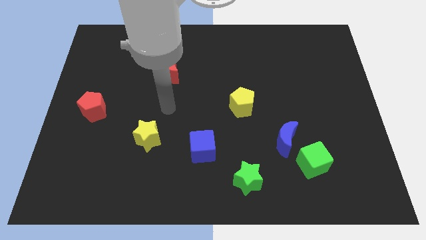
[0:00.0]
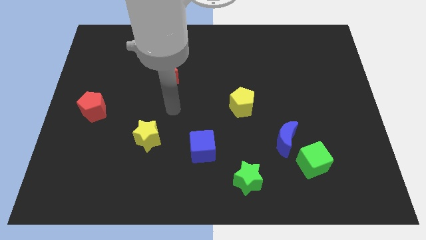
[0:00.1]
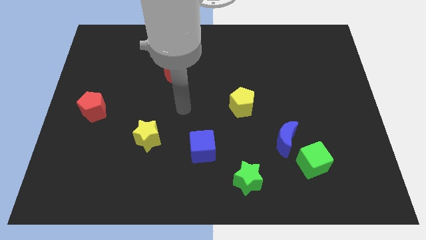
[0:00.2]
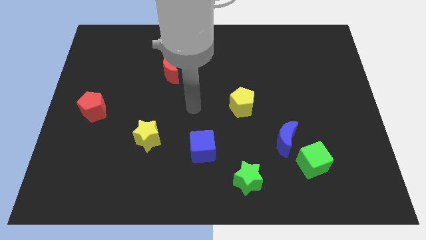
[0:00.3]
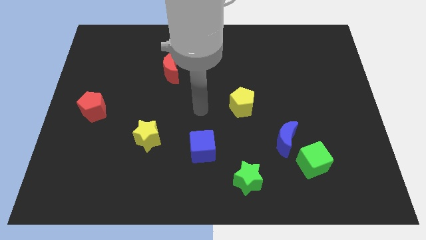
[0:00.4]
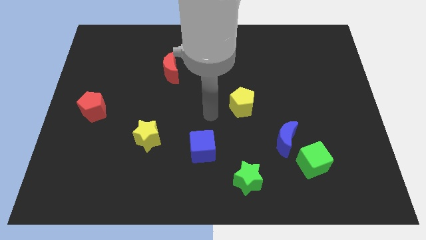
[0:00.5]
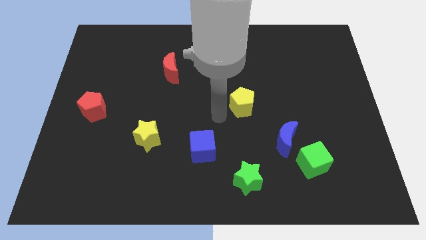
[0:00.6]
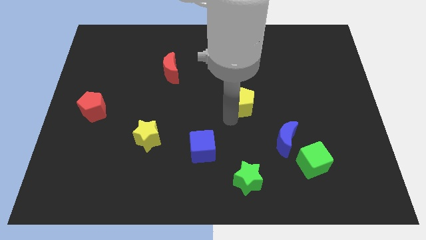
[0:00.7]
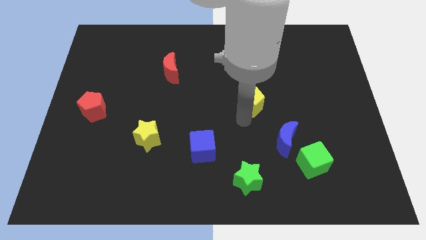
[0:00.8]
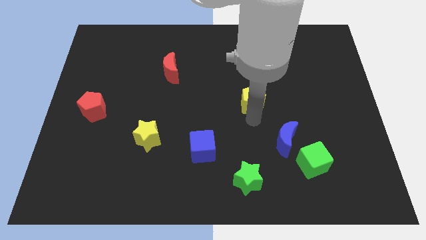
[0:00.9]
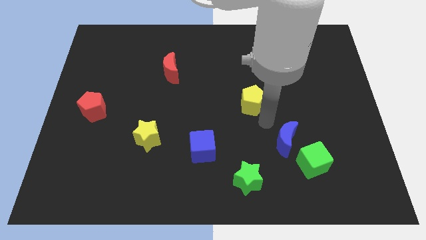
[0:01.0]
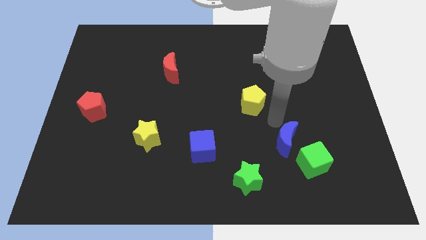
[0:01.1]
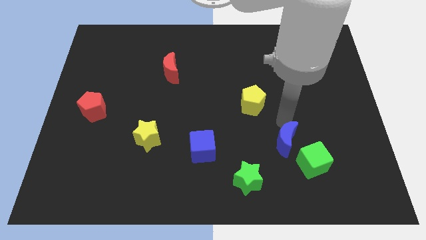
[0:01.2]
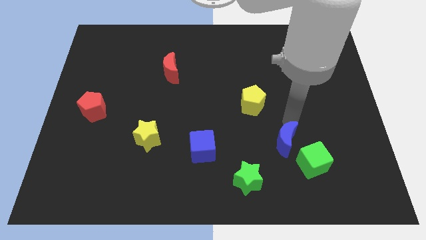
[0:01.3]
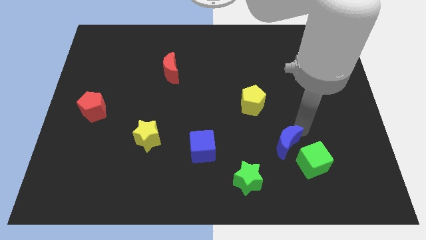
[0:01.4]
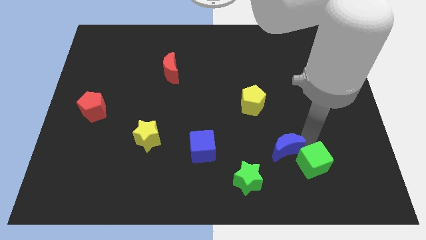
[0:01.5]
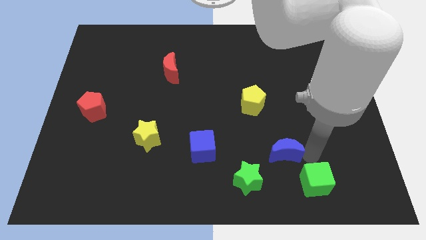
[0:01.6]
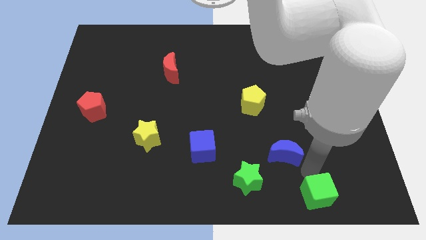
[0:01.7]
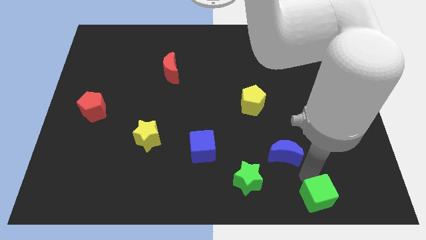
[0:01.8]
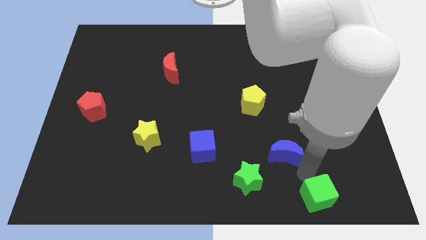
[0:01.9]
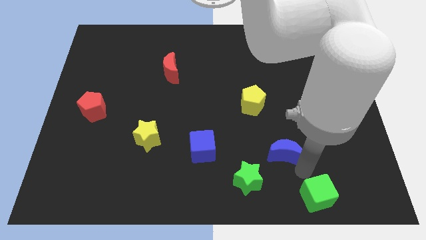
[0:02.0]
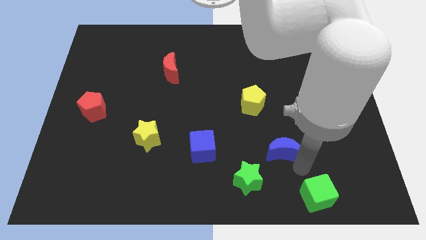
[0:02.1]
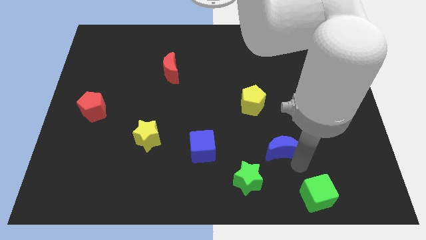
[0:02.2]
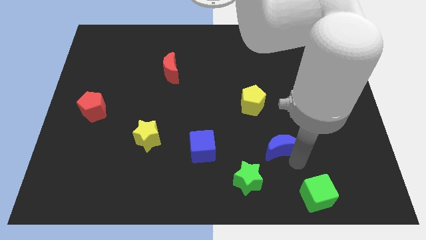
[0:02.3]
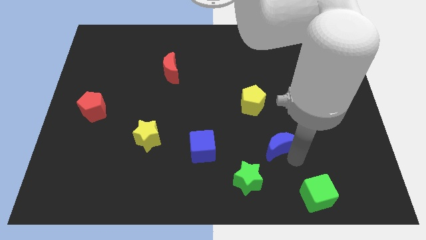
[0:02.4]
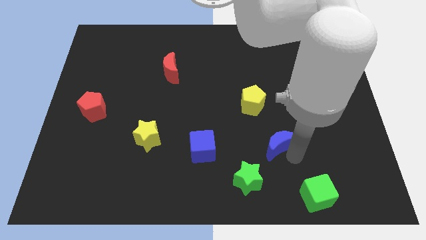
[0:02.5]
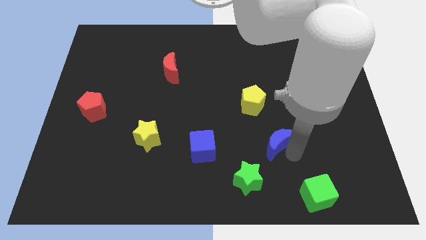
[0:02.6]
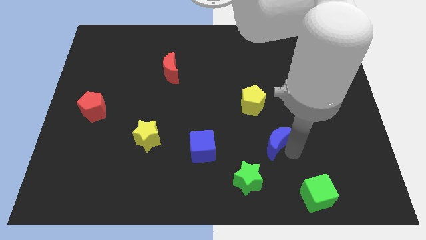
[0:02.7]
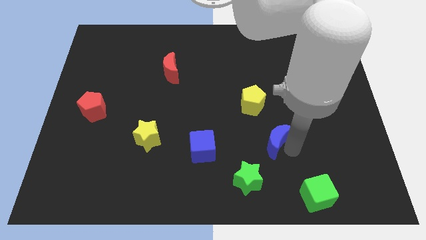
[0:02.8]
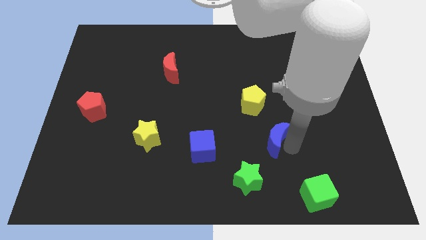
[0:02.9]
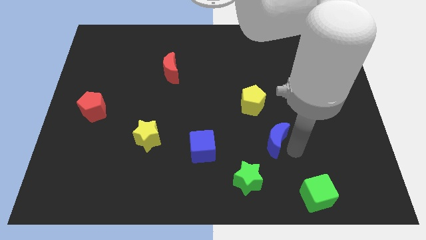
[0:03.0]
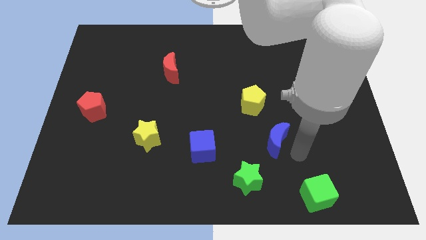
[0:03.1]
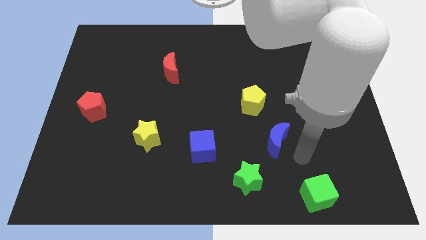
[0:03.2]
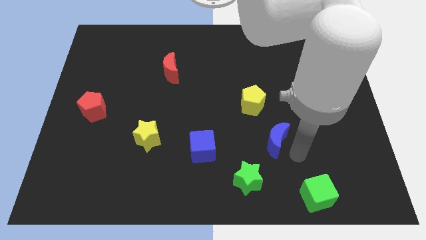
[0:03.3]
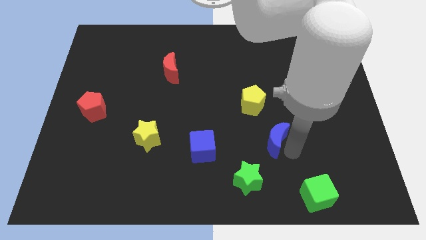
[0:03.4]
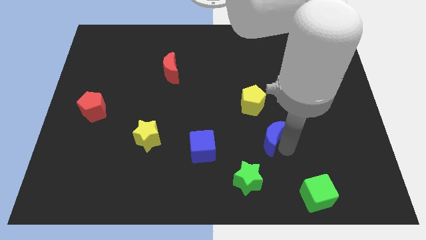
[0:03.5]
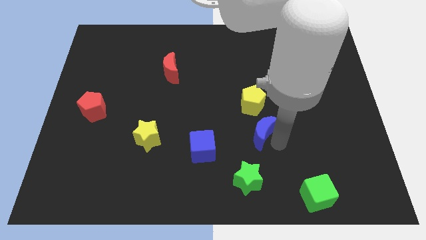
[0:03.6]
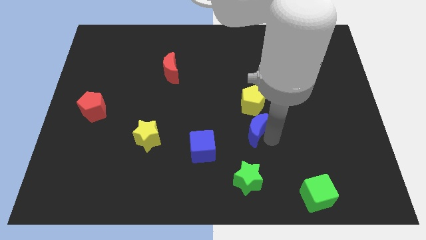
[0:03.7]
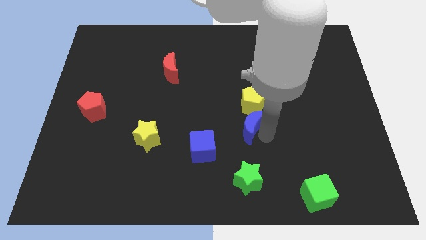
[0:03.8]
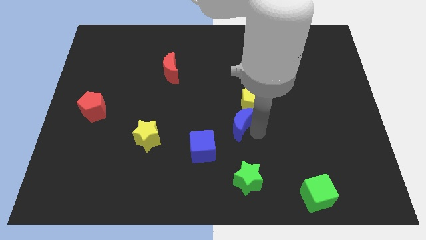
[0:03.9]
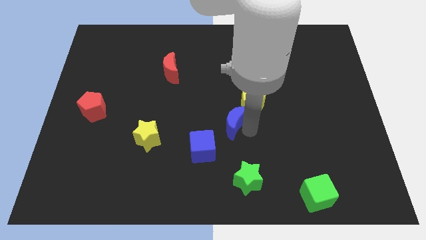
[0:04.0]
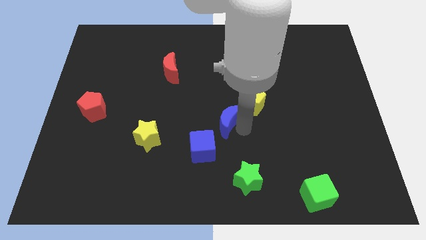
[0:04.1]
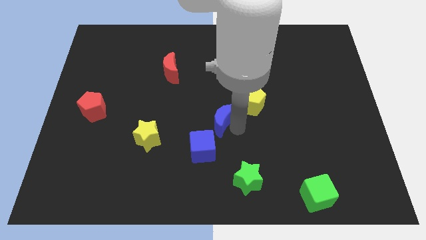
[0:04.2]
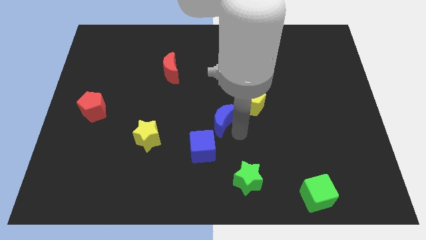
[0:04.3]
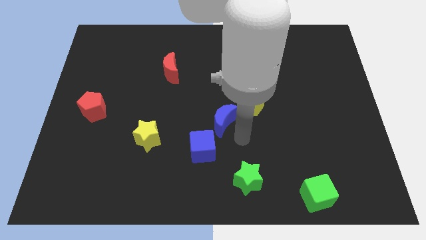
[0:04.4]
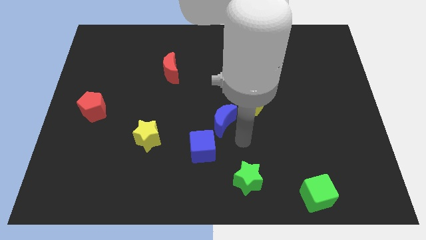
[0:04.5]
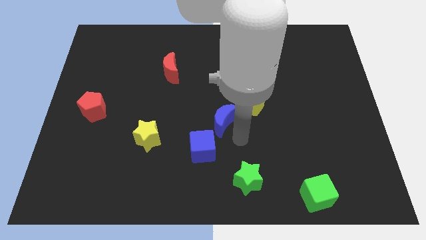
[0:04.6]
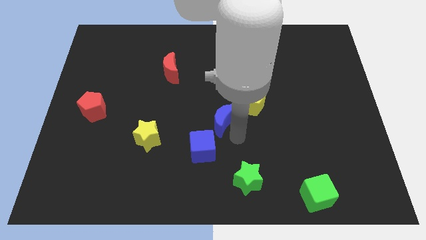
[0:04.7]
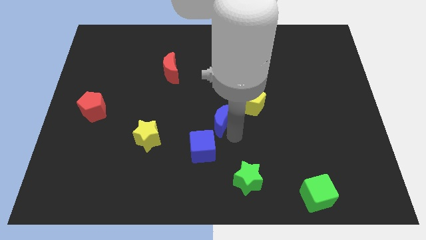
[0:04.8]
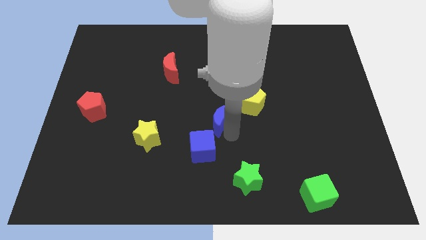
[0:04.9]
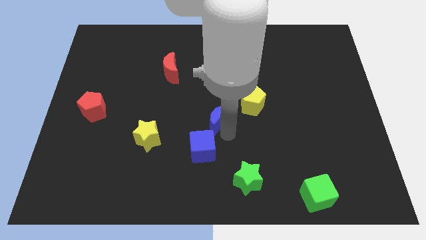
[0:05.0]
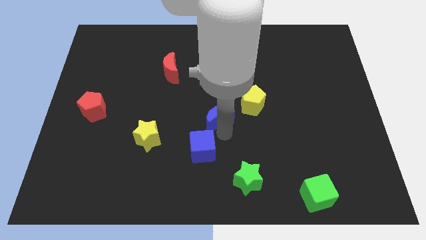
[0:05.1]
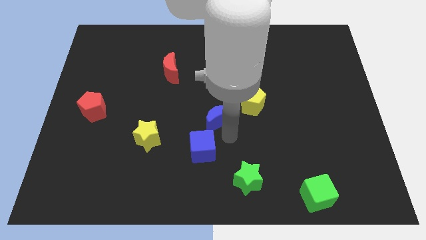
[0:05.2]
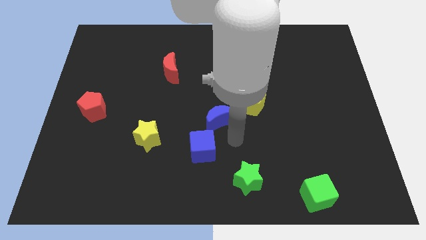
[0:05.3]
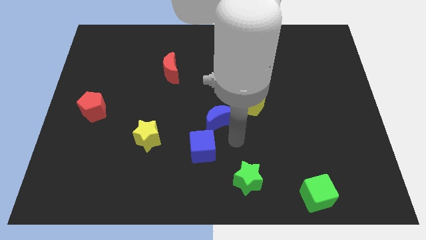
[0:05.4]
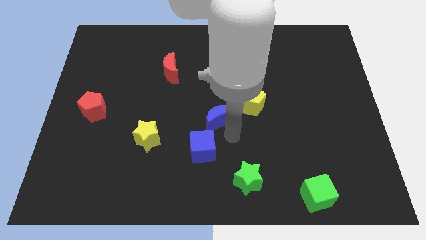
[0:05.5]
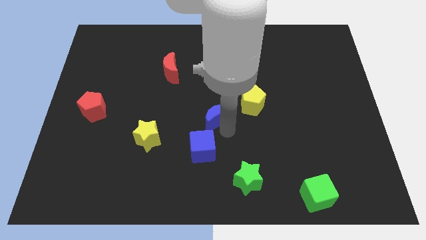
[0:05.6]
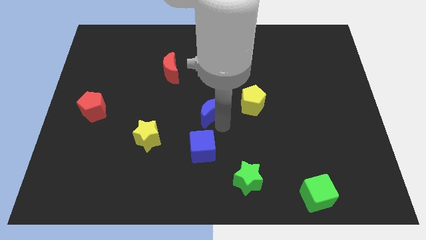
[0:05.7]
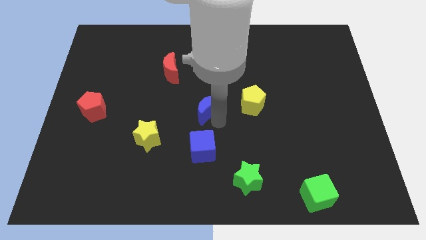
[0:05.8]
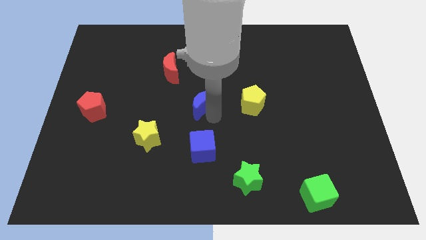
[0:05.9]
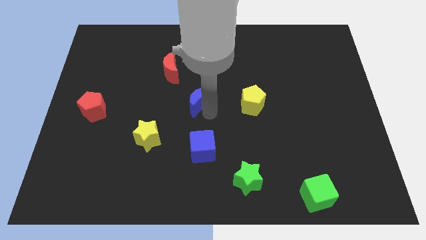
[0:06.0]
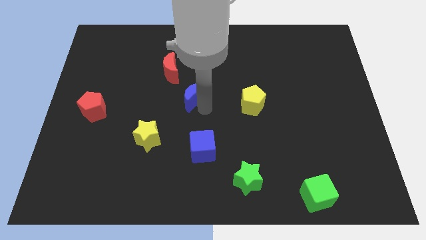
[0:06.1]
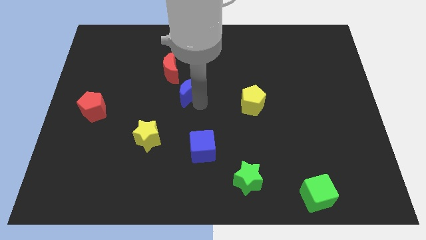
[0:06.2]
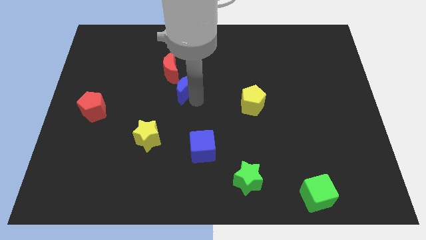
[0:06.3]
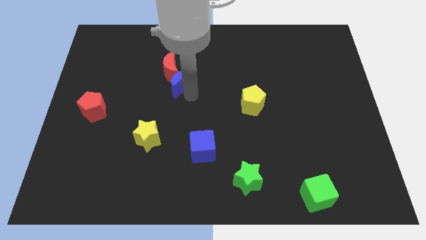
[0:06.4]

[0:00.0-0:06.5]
put the blue moon to the red moon

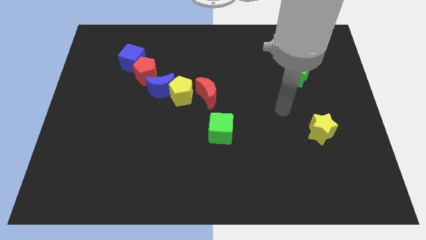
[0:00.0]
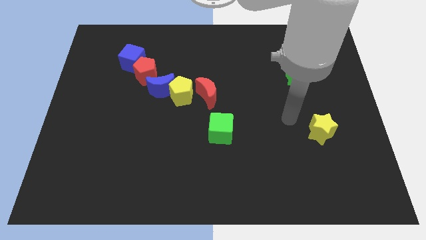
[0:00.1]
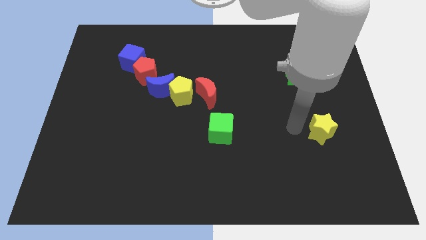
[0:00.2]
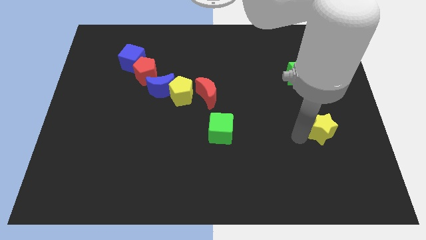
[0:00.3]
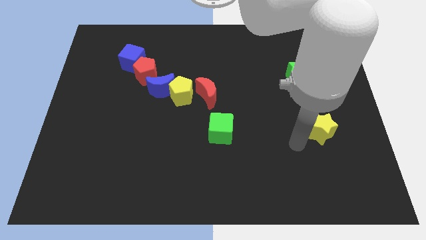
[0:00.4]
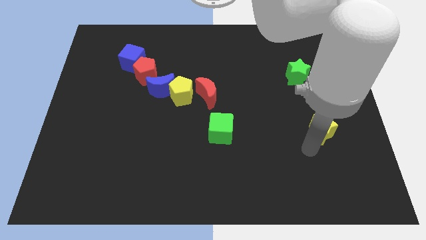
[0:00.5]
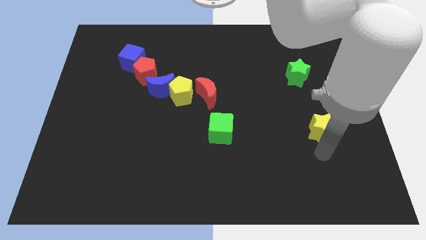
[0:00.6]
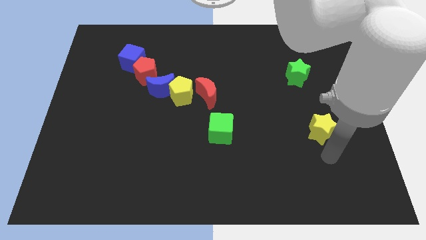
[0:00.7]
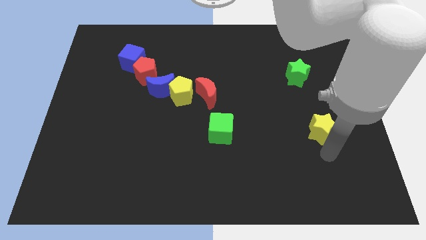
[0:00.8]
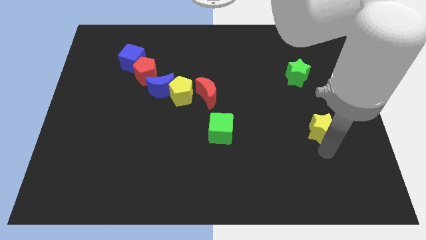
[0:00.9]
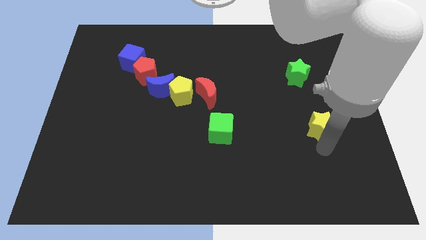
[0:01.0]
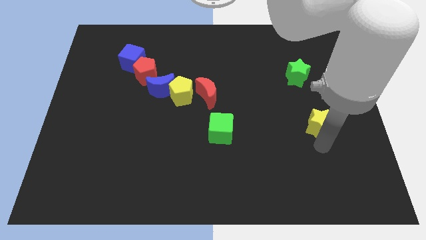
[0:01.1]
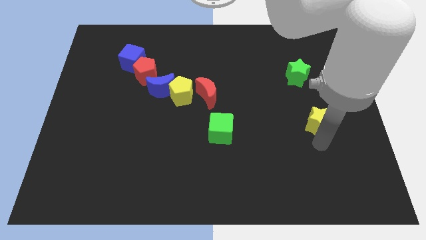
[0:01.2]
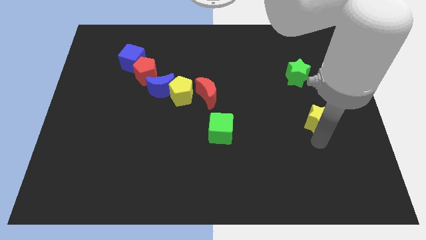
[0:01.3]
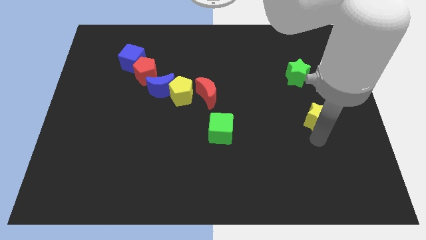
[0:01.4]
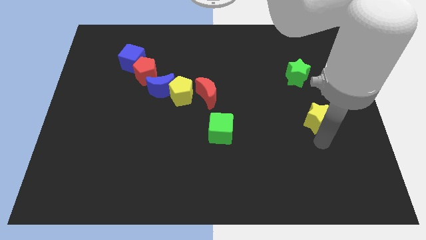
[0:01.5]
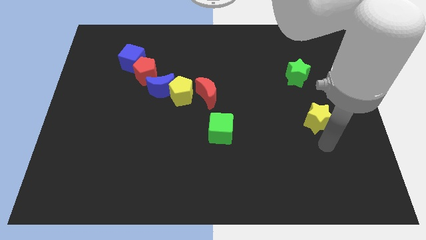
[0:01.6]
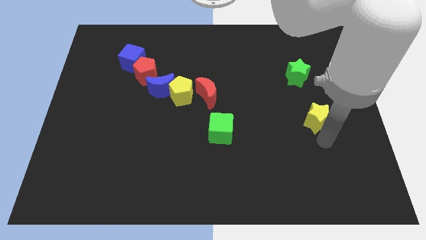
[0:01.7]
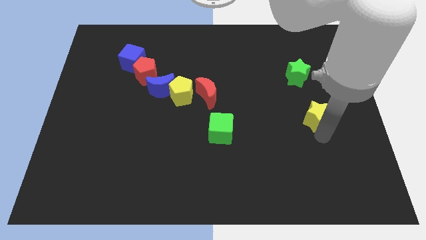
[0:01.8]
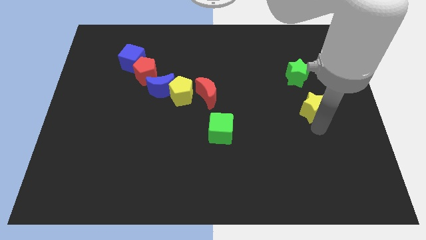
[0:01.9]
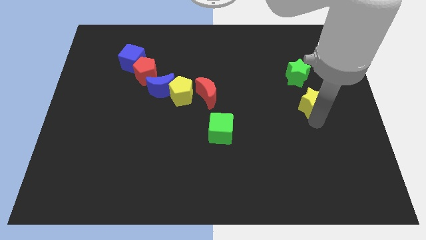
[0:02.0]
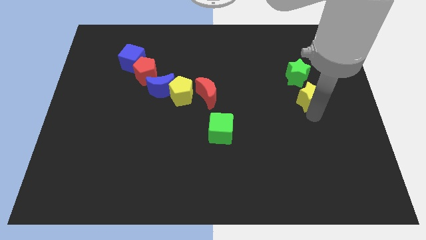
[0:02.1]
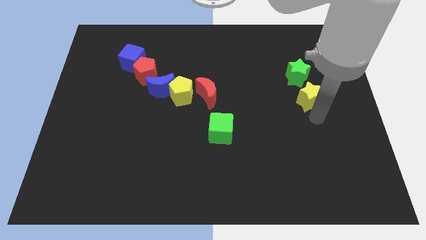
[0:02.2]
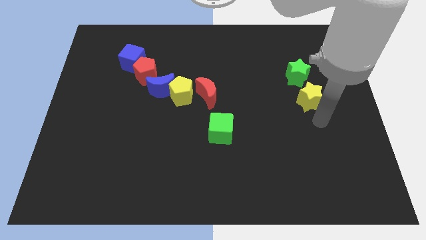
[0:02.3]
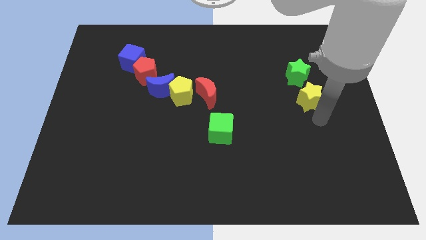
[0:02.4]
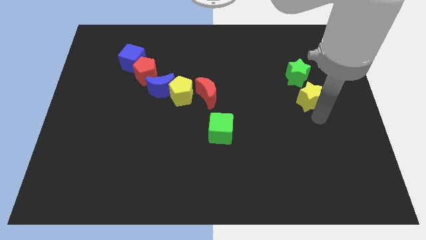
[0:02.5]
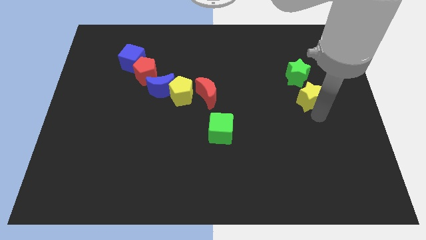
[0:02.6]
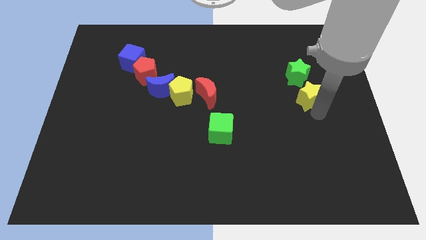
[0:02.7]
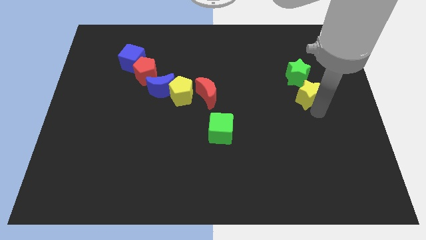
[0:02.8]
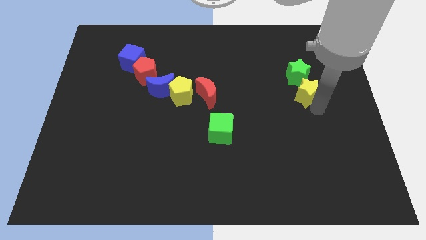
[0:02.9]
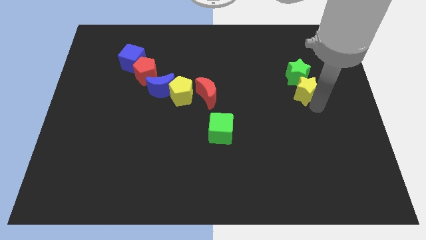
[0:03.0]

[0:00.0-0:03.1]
move the yellow star close to the green star
